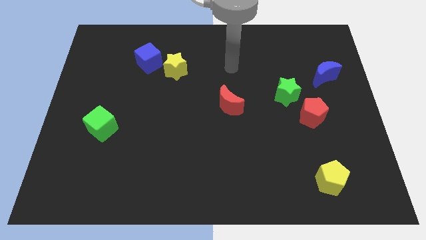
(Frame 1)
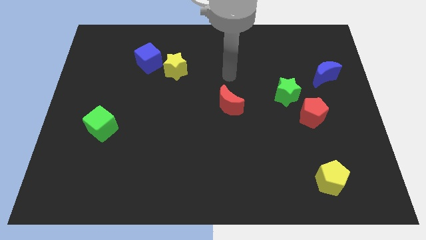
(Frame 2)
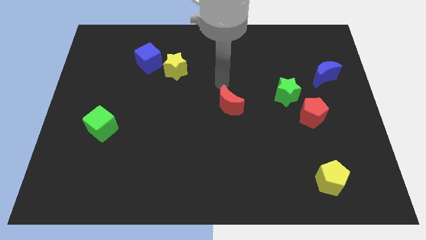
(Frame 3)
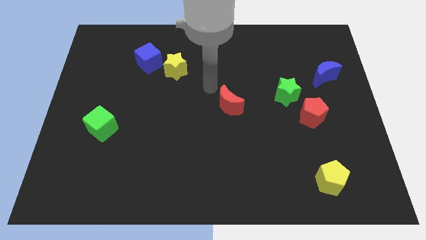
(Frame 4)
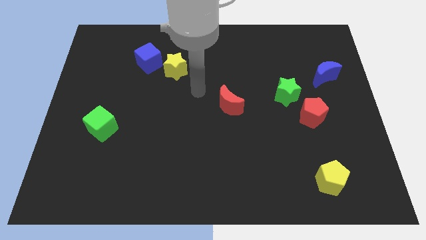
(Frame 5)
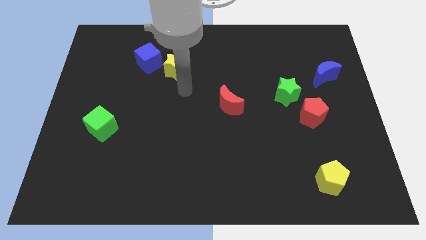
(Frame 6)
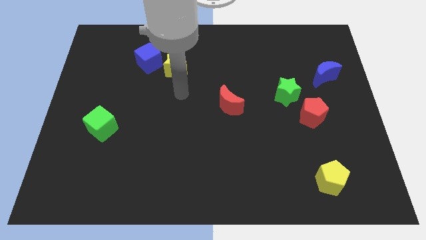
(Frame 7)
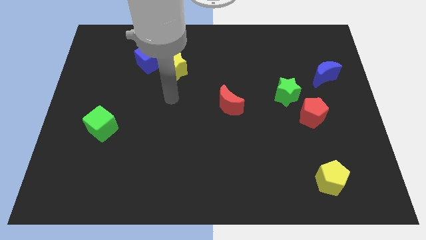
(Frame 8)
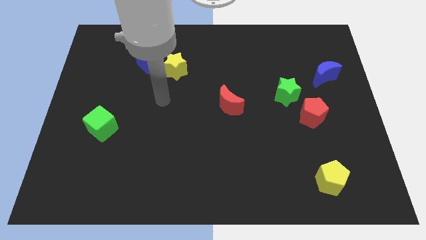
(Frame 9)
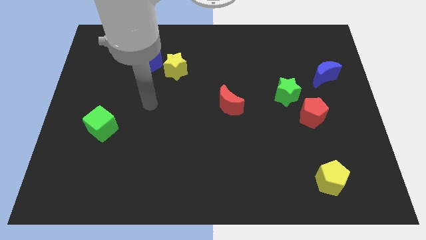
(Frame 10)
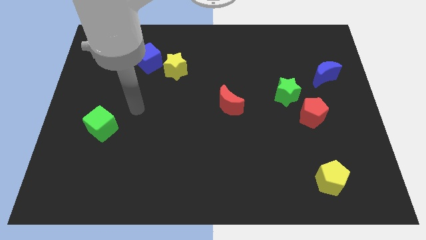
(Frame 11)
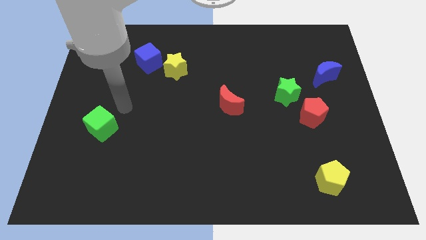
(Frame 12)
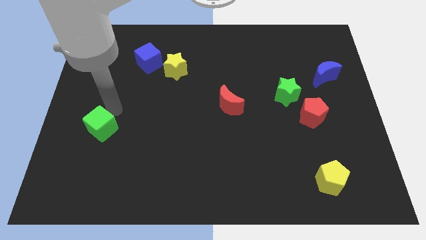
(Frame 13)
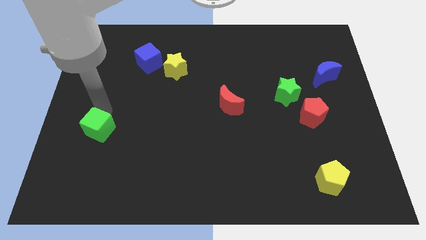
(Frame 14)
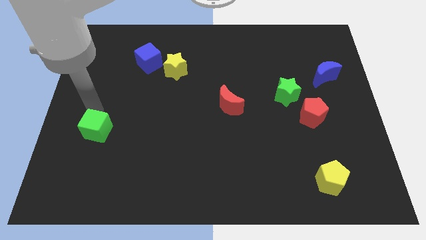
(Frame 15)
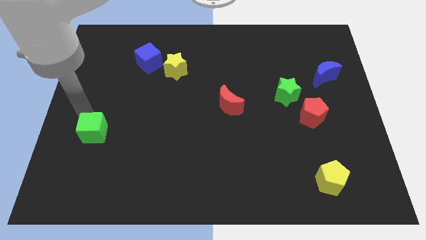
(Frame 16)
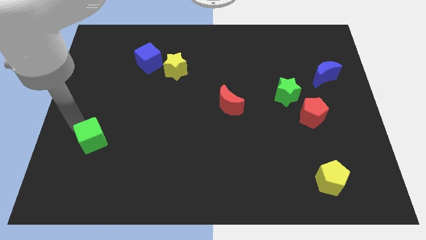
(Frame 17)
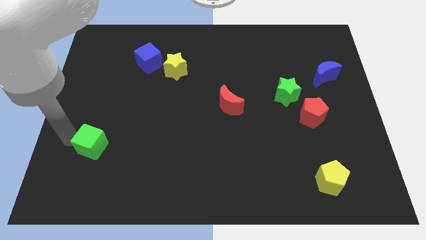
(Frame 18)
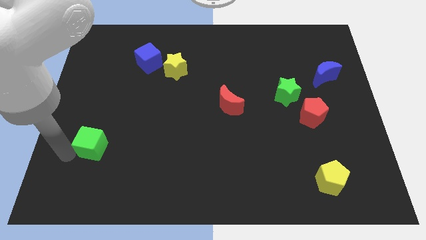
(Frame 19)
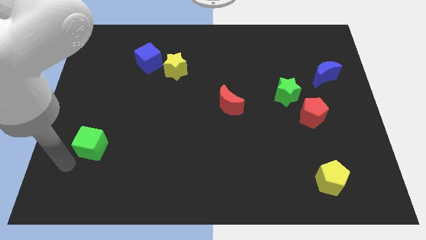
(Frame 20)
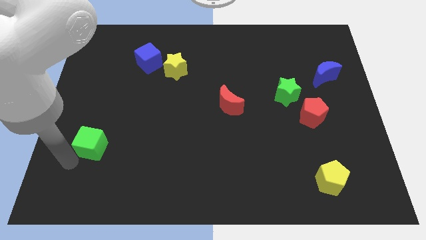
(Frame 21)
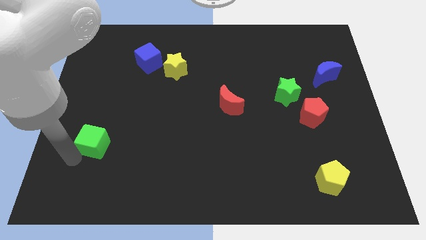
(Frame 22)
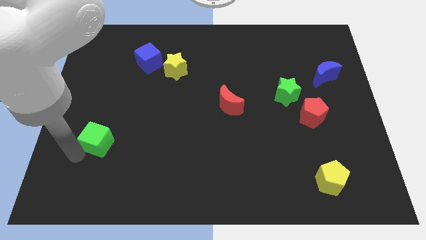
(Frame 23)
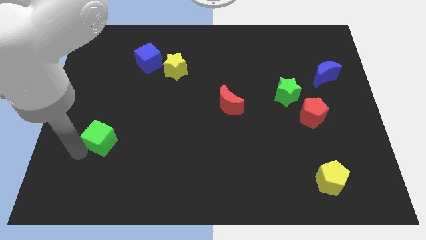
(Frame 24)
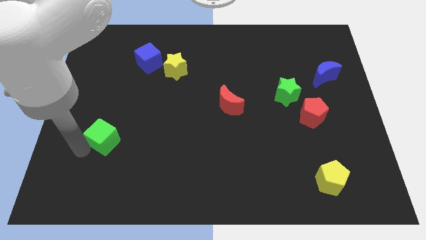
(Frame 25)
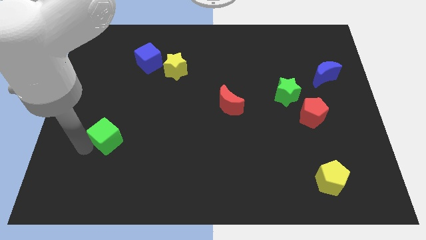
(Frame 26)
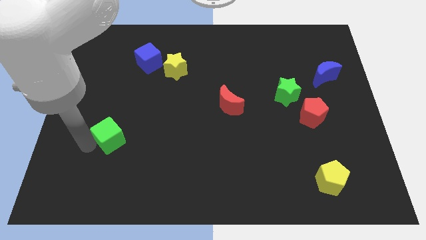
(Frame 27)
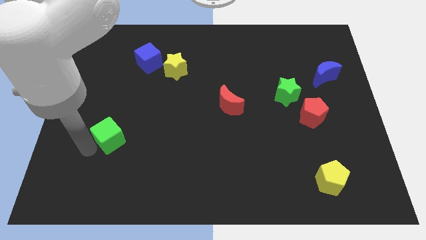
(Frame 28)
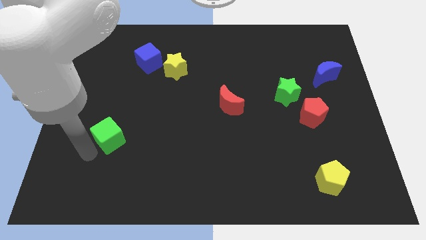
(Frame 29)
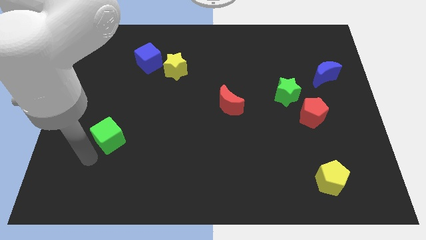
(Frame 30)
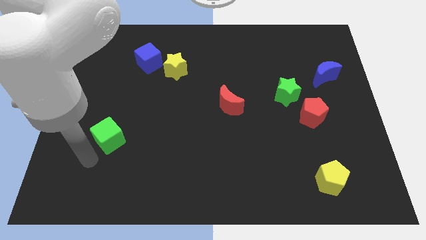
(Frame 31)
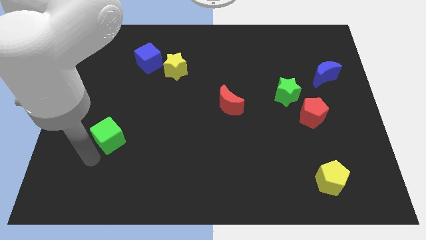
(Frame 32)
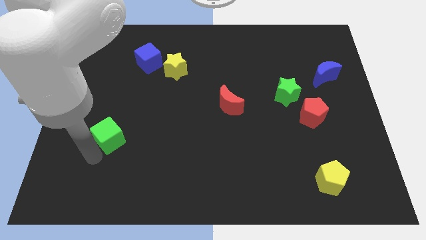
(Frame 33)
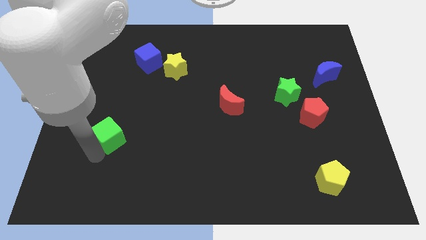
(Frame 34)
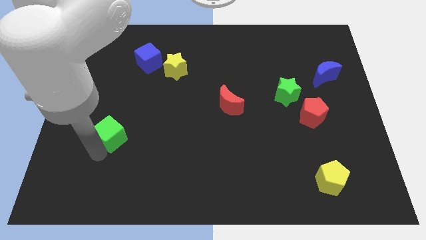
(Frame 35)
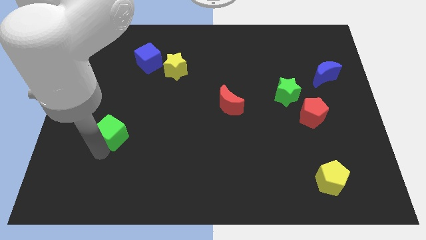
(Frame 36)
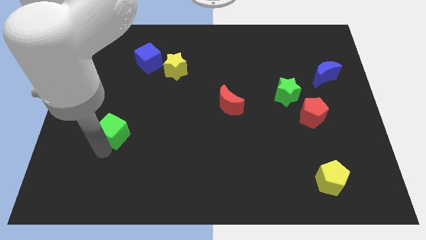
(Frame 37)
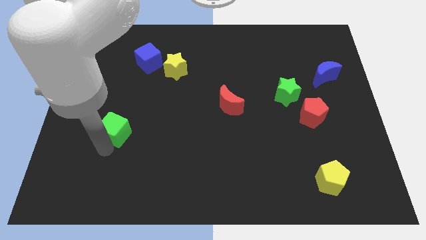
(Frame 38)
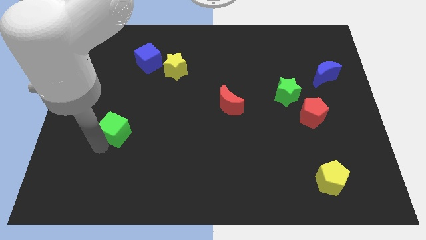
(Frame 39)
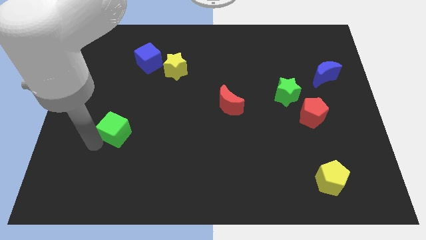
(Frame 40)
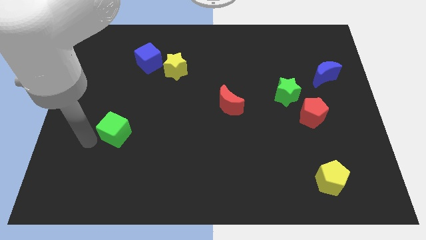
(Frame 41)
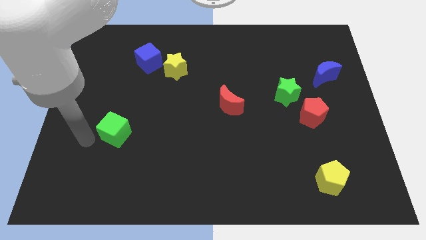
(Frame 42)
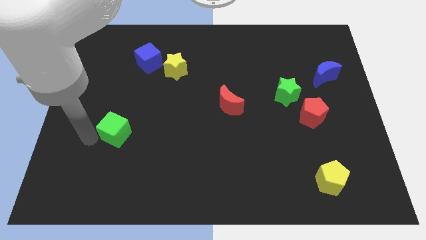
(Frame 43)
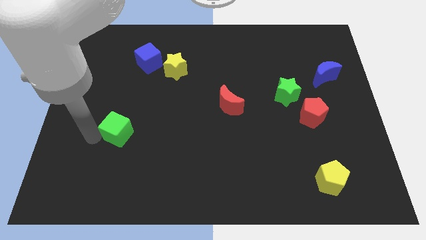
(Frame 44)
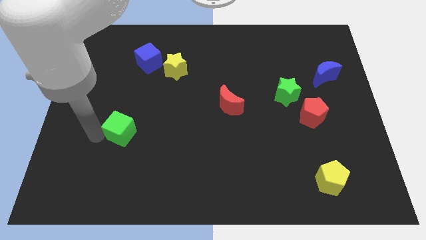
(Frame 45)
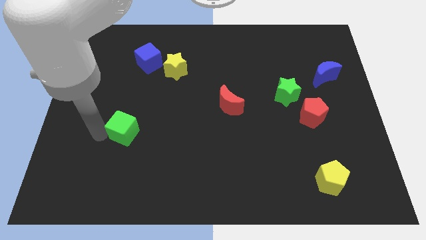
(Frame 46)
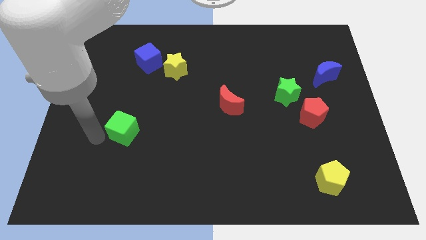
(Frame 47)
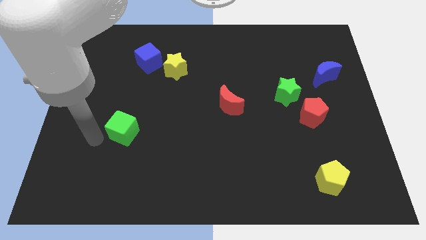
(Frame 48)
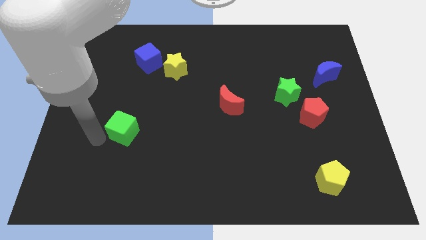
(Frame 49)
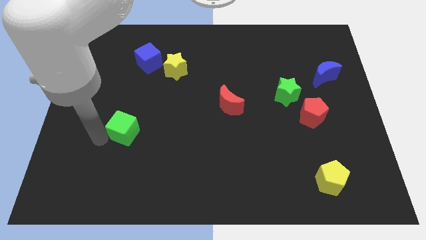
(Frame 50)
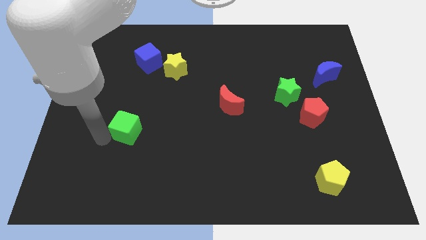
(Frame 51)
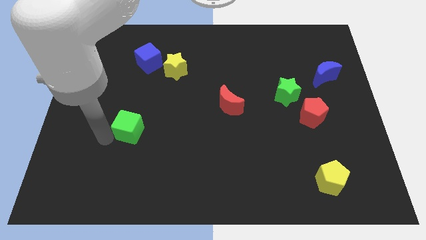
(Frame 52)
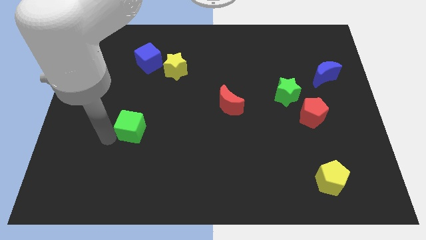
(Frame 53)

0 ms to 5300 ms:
move the green cube to the right a little bit

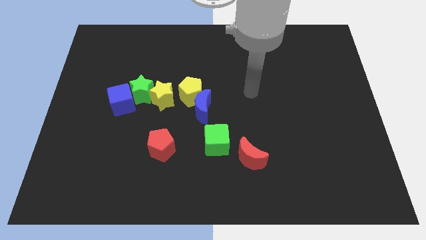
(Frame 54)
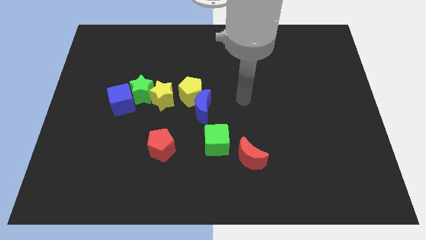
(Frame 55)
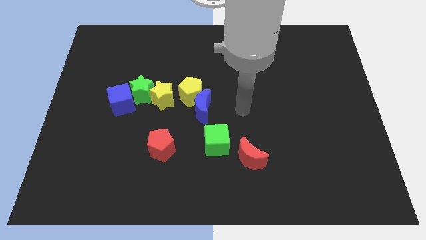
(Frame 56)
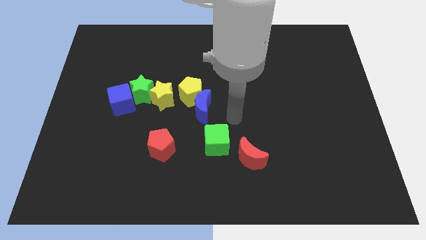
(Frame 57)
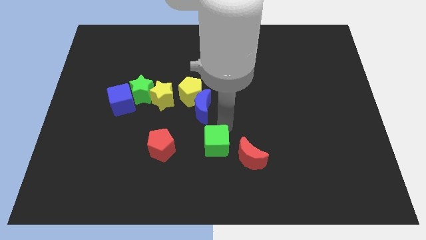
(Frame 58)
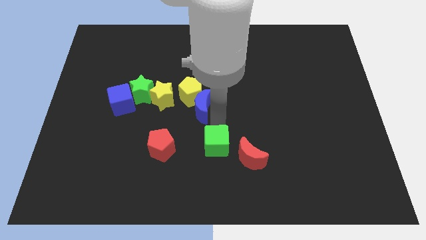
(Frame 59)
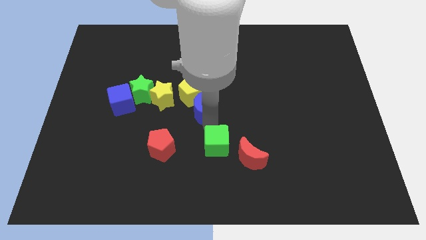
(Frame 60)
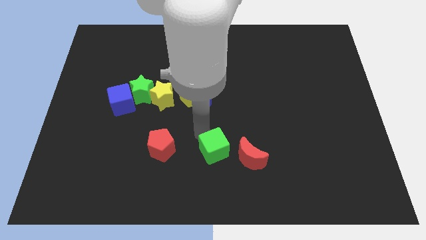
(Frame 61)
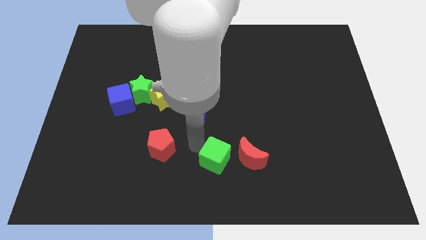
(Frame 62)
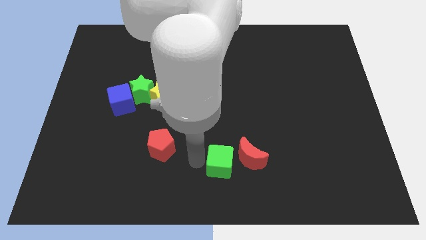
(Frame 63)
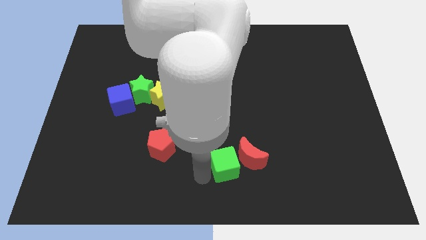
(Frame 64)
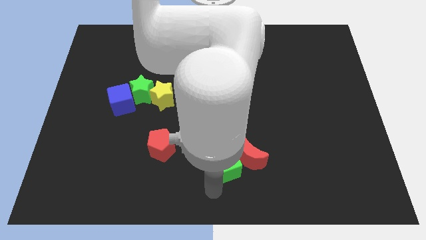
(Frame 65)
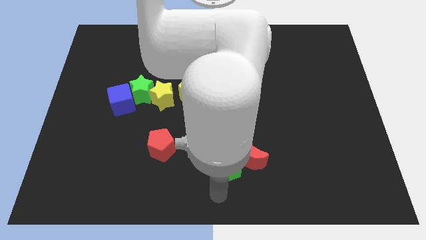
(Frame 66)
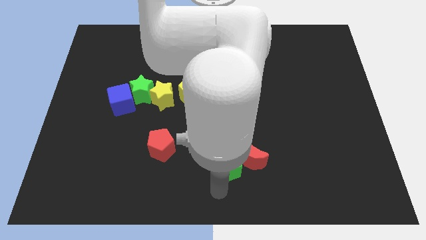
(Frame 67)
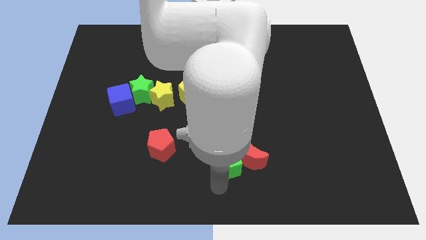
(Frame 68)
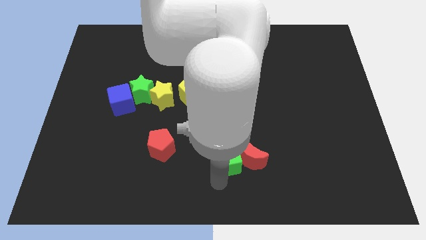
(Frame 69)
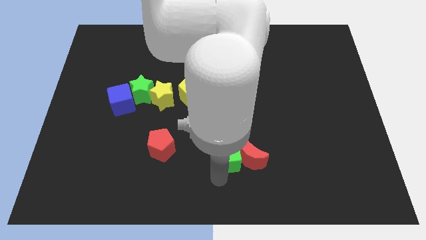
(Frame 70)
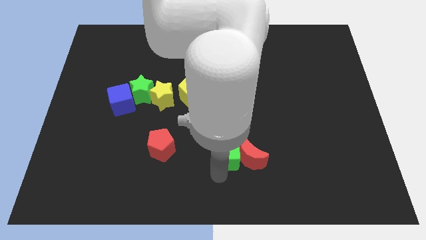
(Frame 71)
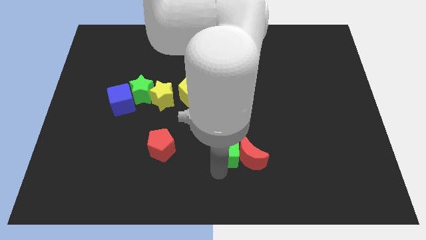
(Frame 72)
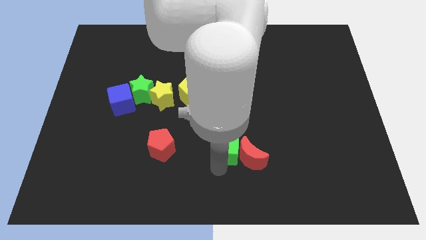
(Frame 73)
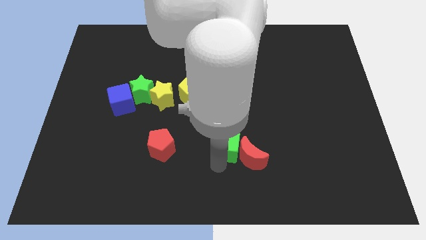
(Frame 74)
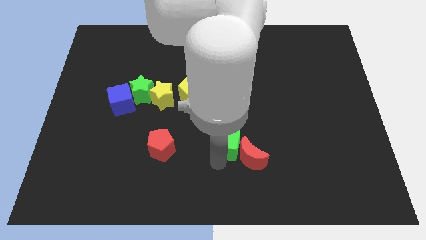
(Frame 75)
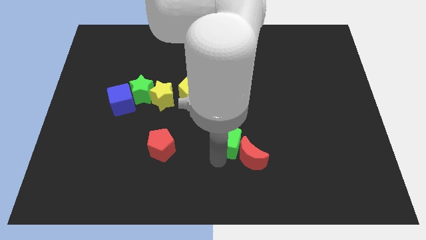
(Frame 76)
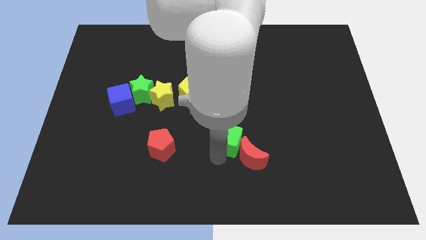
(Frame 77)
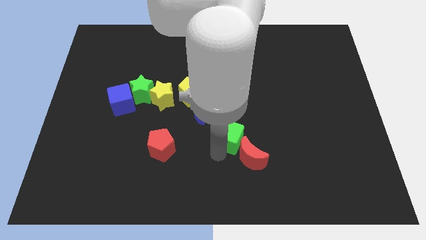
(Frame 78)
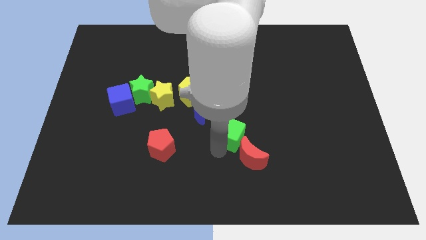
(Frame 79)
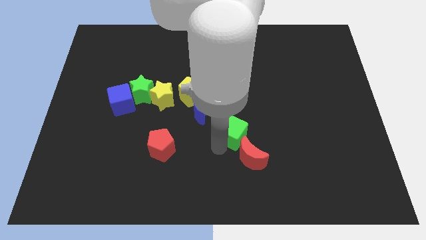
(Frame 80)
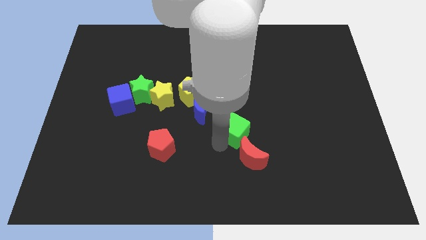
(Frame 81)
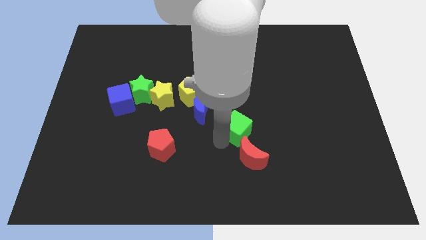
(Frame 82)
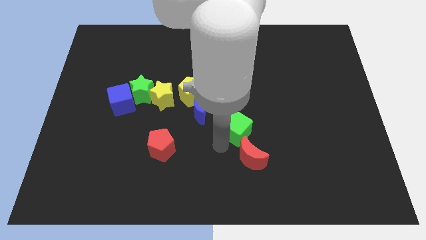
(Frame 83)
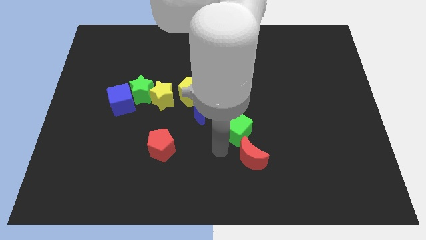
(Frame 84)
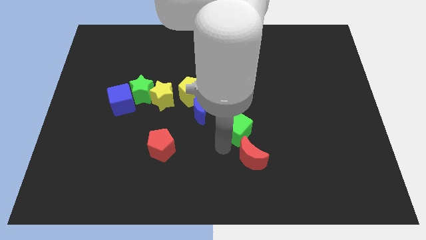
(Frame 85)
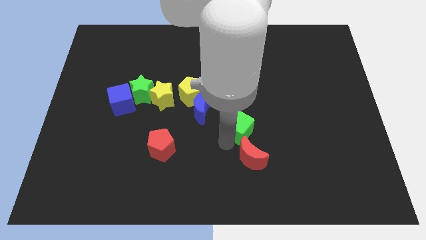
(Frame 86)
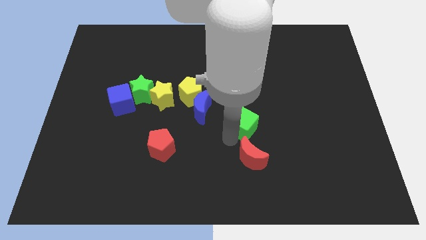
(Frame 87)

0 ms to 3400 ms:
slide the green cube a little diagonally up and to the right
